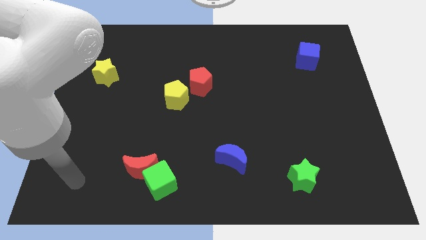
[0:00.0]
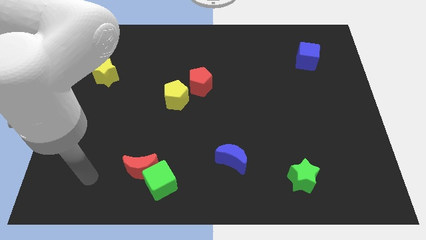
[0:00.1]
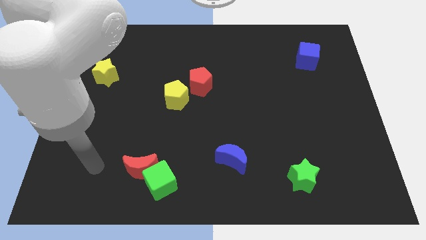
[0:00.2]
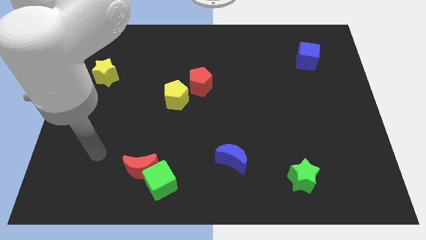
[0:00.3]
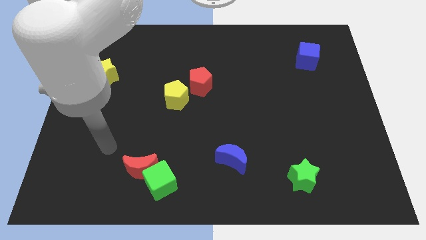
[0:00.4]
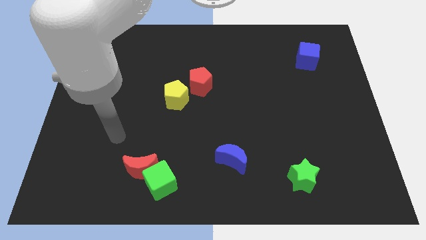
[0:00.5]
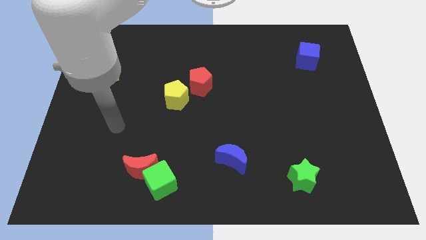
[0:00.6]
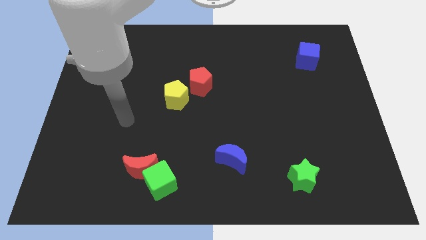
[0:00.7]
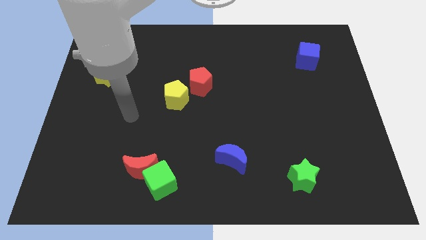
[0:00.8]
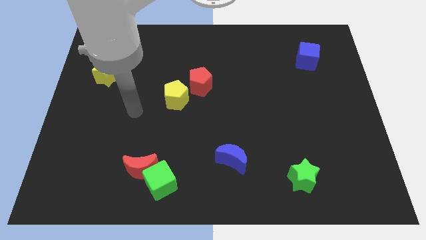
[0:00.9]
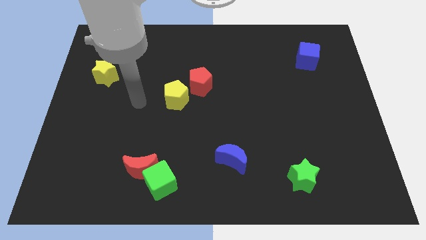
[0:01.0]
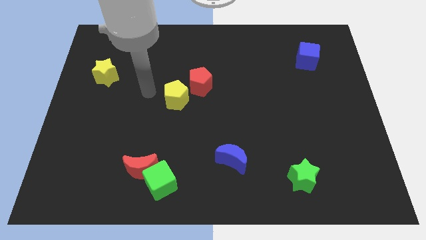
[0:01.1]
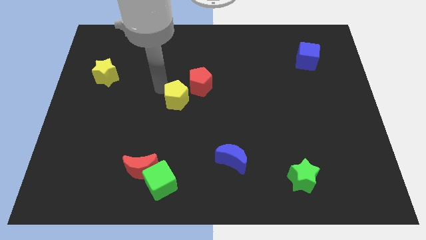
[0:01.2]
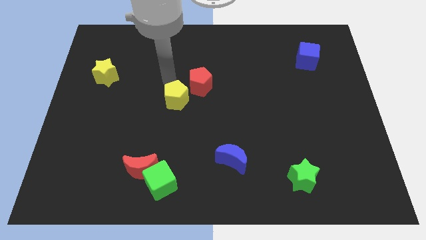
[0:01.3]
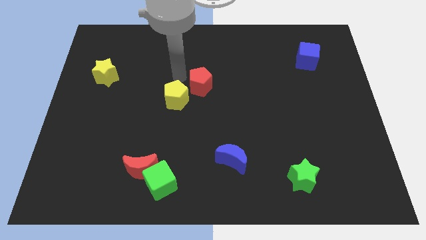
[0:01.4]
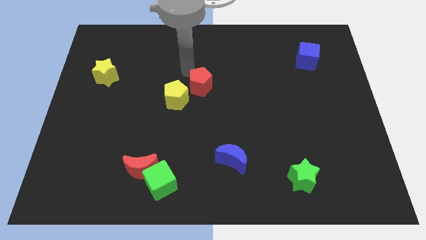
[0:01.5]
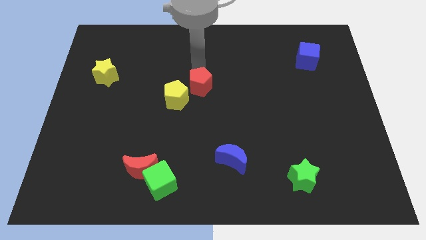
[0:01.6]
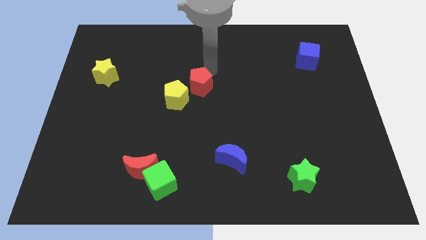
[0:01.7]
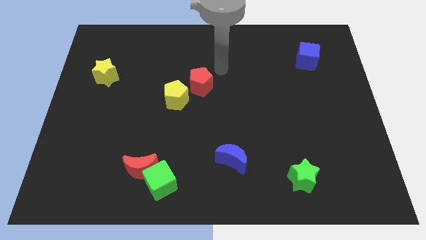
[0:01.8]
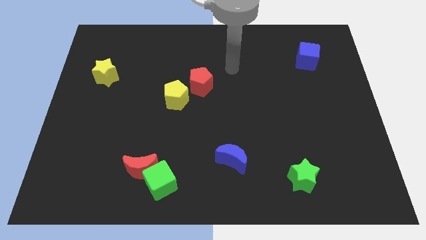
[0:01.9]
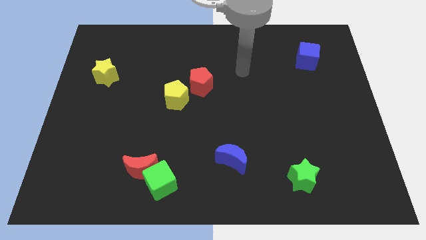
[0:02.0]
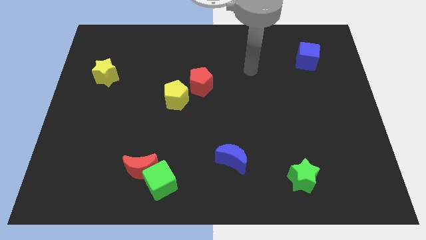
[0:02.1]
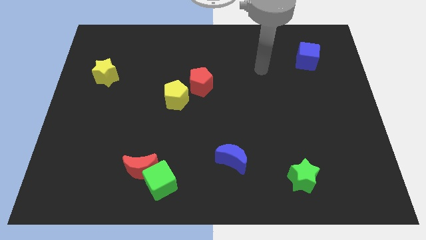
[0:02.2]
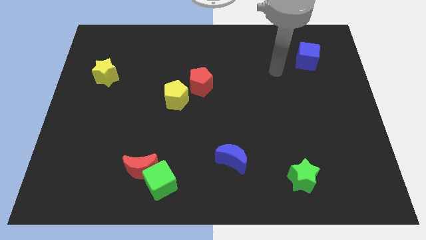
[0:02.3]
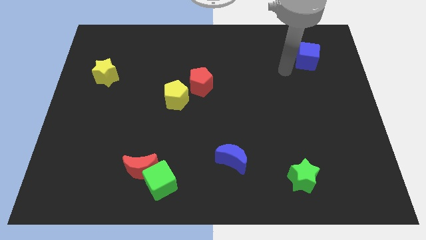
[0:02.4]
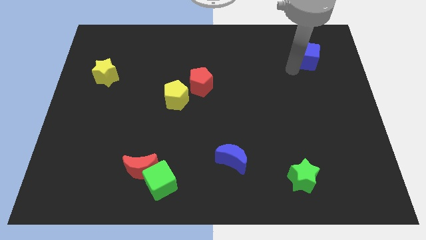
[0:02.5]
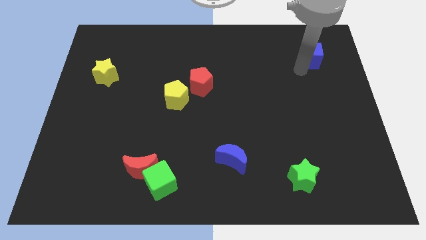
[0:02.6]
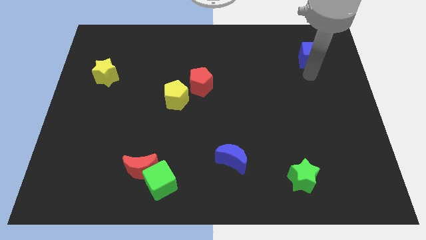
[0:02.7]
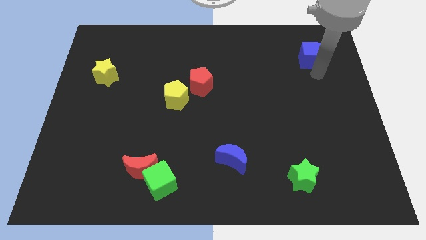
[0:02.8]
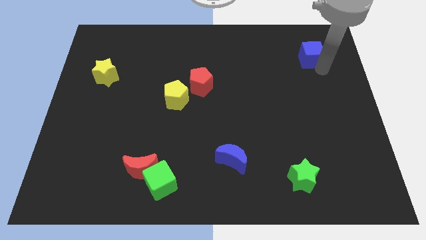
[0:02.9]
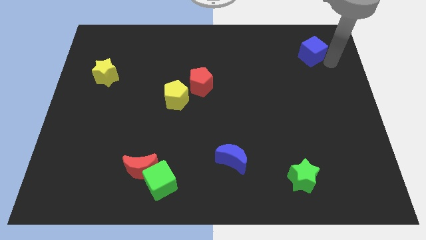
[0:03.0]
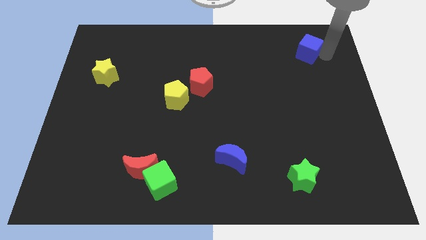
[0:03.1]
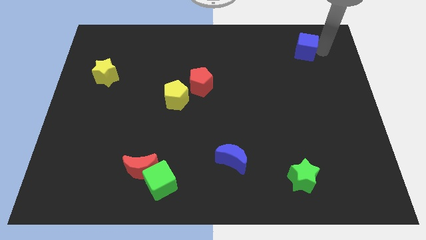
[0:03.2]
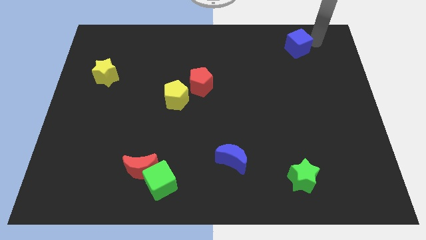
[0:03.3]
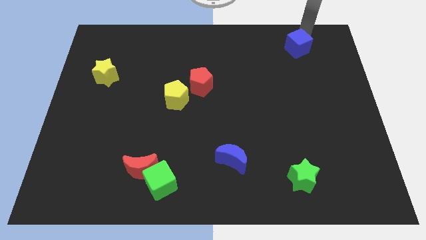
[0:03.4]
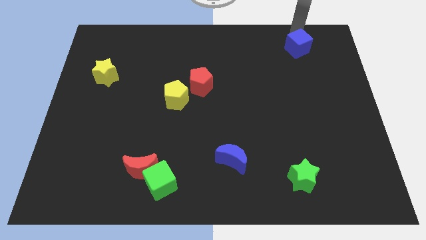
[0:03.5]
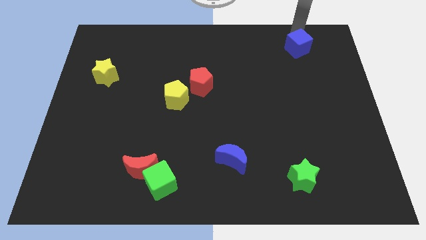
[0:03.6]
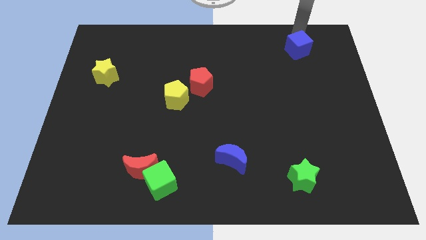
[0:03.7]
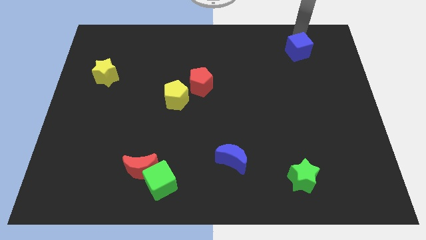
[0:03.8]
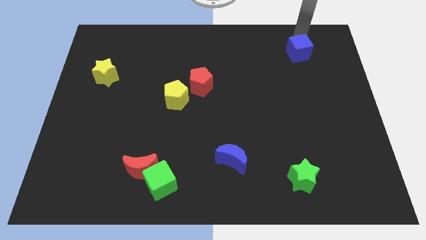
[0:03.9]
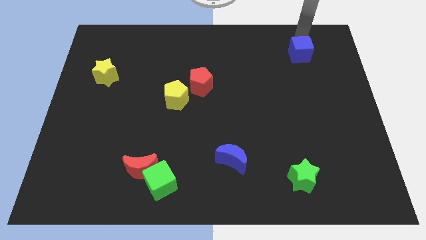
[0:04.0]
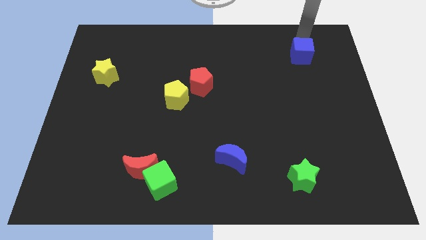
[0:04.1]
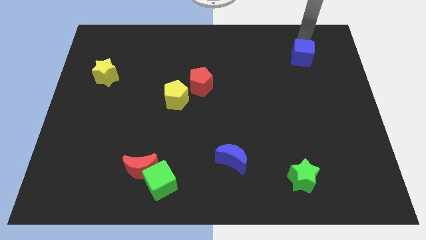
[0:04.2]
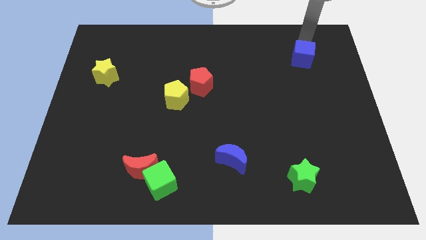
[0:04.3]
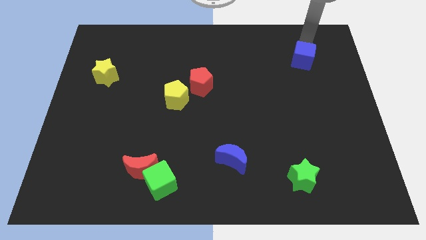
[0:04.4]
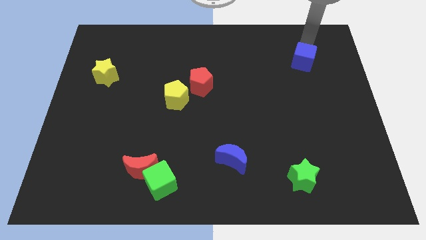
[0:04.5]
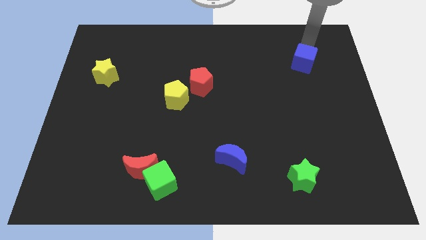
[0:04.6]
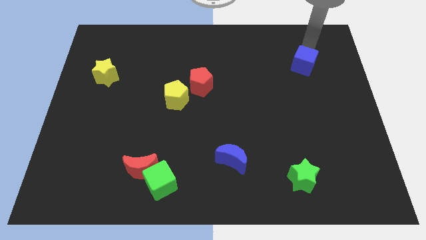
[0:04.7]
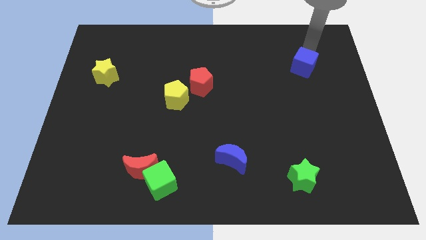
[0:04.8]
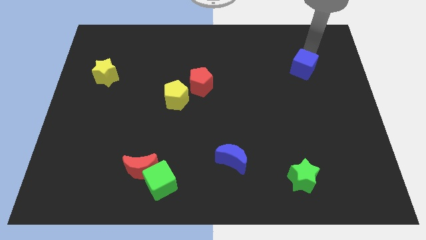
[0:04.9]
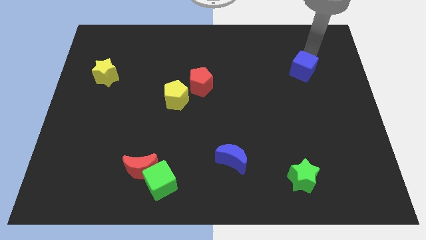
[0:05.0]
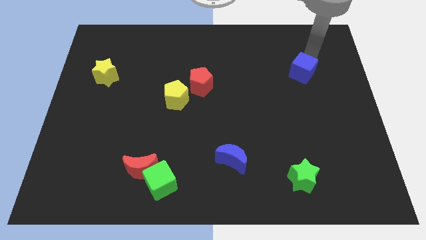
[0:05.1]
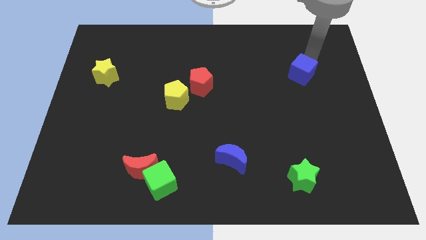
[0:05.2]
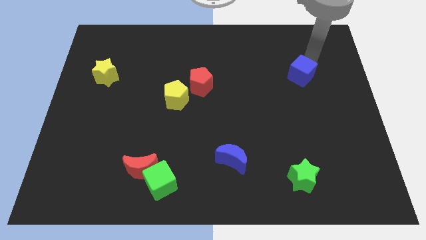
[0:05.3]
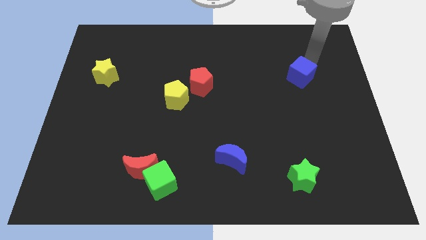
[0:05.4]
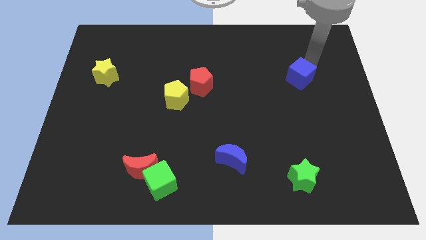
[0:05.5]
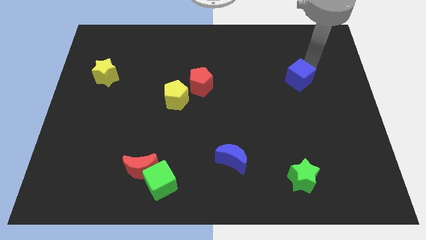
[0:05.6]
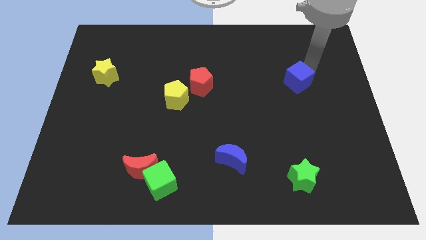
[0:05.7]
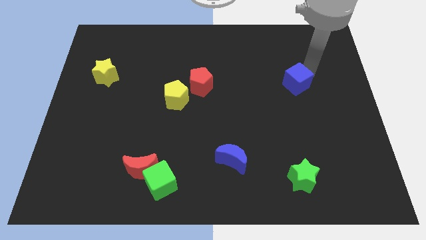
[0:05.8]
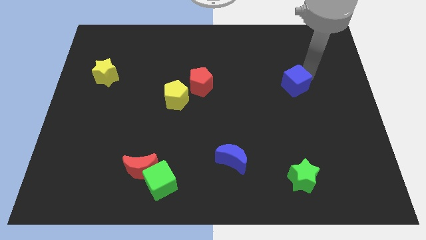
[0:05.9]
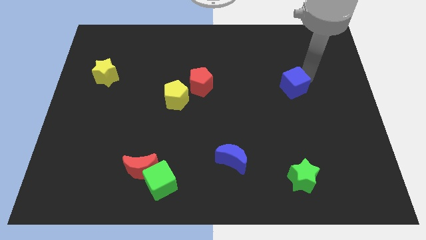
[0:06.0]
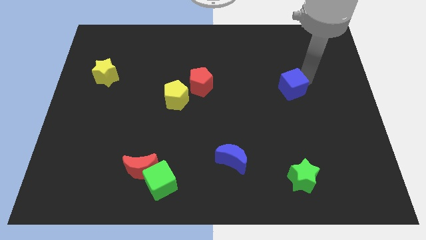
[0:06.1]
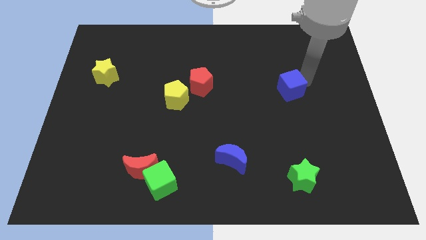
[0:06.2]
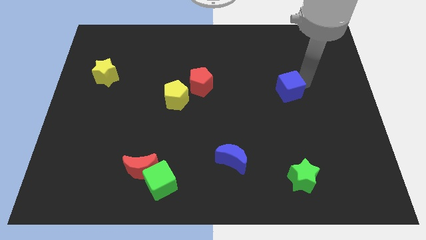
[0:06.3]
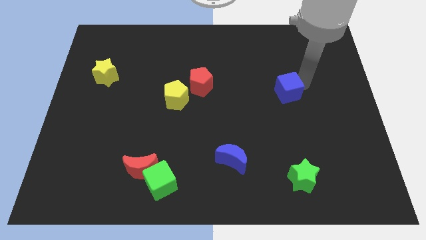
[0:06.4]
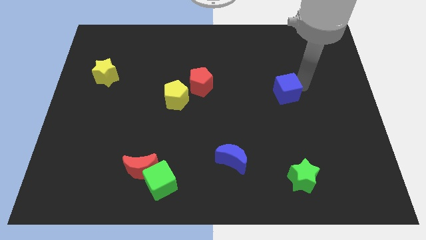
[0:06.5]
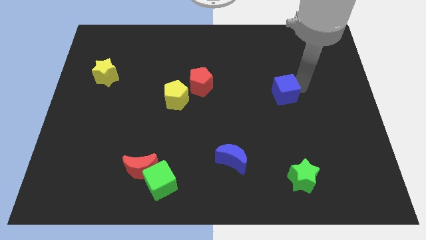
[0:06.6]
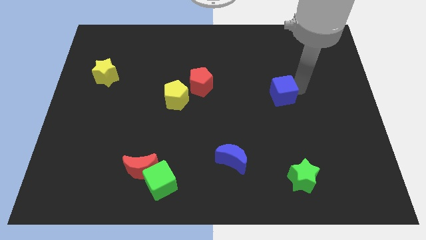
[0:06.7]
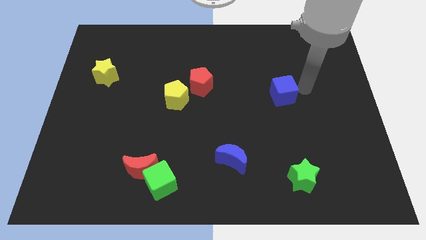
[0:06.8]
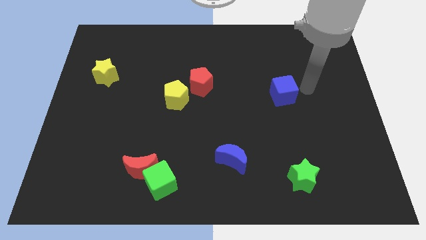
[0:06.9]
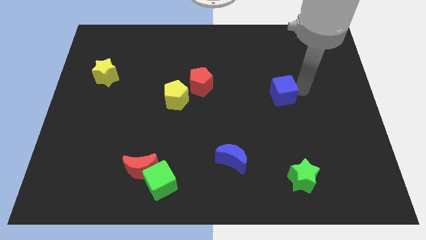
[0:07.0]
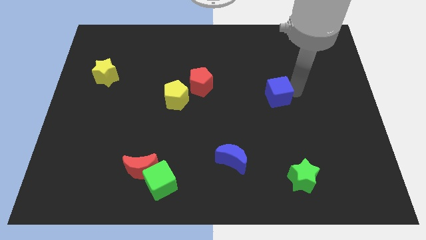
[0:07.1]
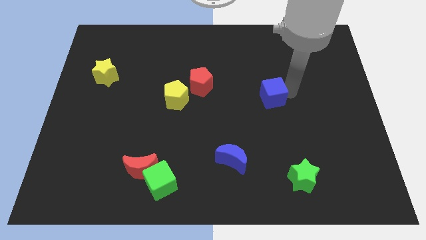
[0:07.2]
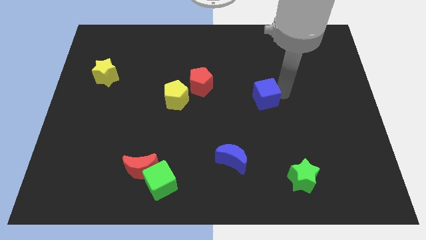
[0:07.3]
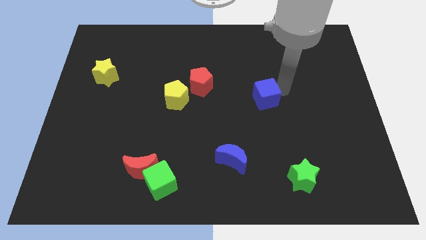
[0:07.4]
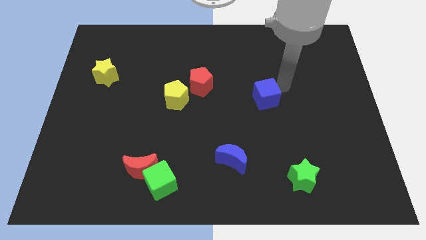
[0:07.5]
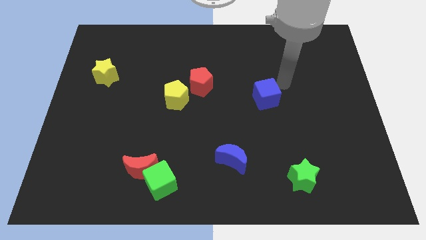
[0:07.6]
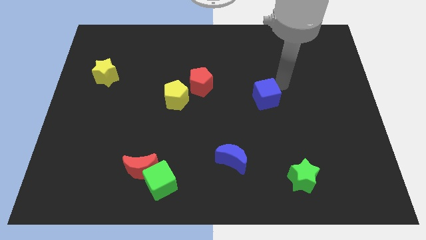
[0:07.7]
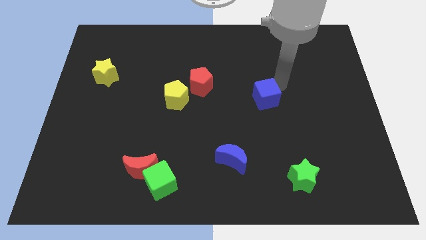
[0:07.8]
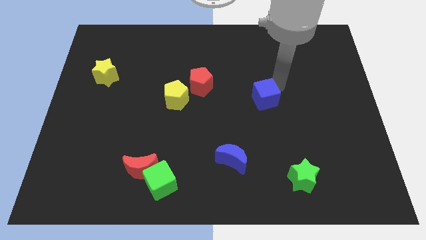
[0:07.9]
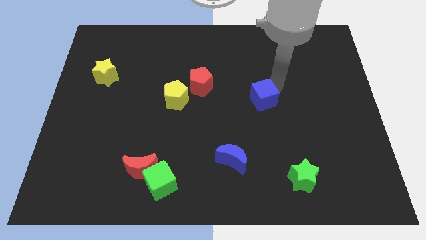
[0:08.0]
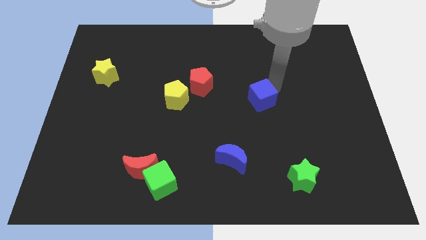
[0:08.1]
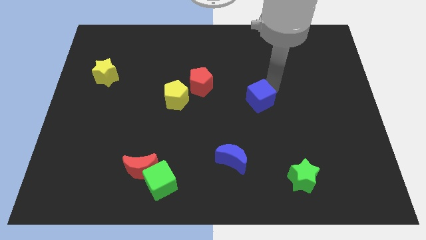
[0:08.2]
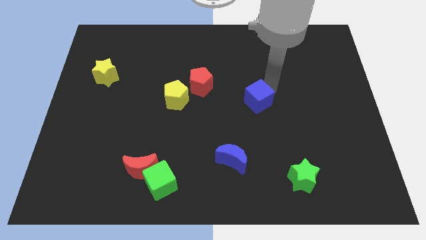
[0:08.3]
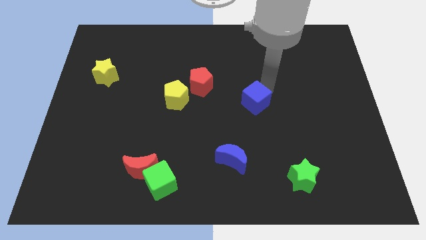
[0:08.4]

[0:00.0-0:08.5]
slide the blue cube downwards and to the left
